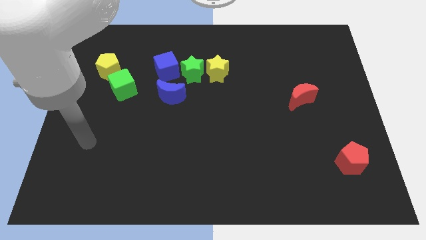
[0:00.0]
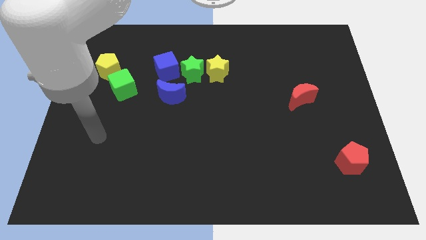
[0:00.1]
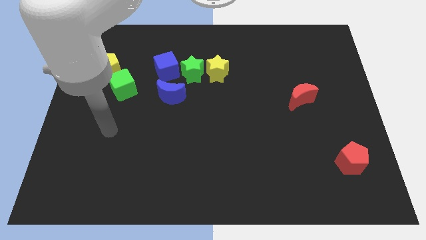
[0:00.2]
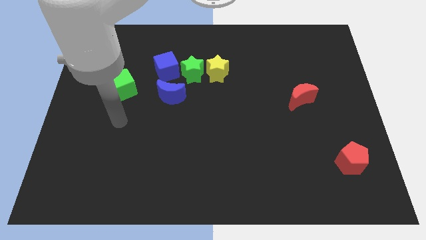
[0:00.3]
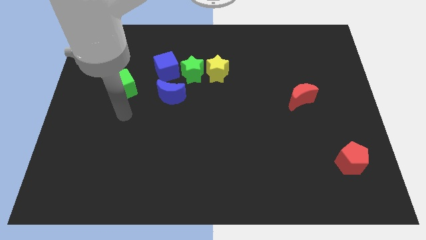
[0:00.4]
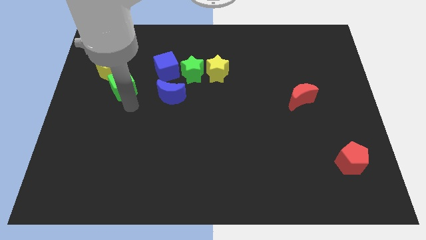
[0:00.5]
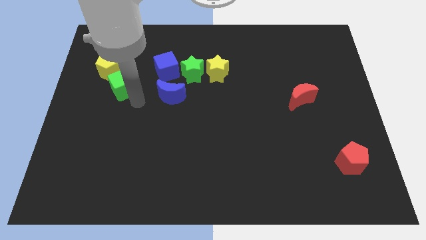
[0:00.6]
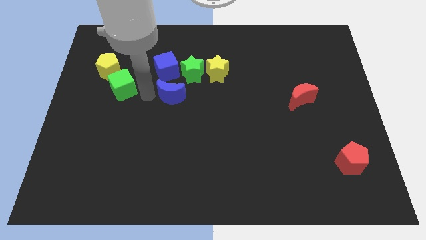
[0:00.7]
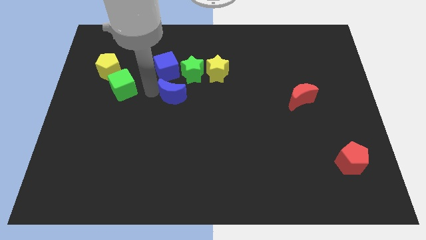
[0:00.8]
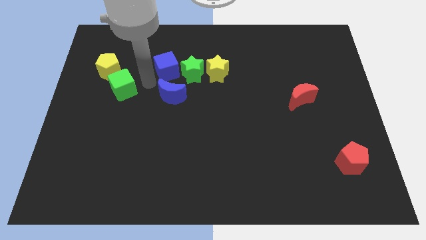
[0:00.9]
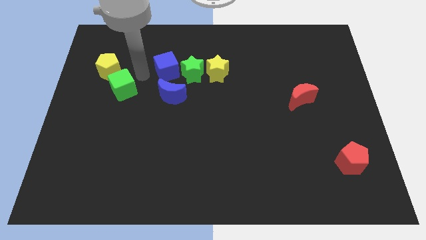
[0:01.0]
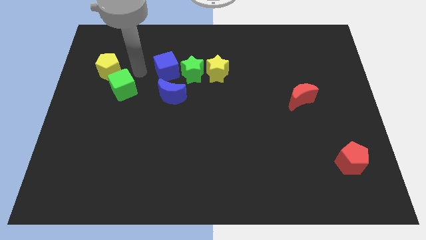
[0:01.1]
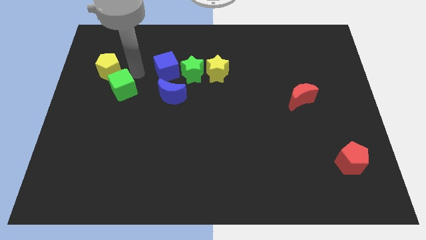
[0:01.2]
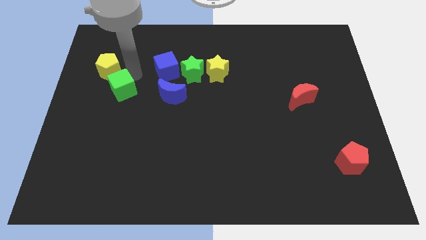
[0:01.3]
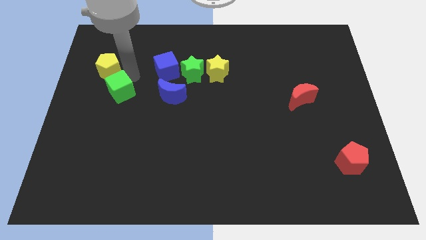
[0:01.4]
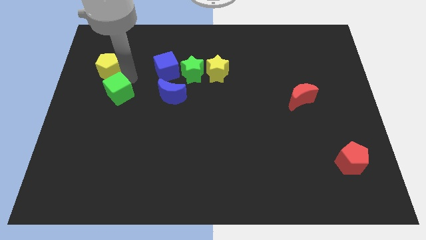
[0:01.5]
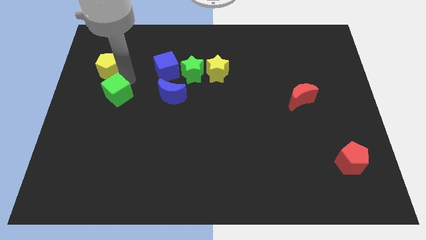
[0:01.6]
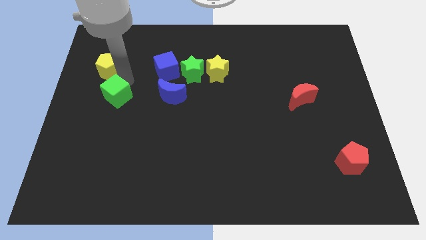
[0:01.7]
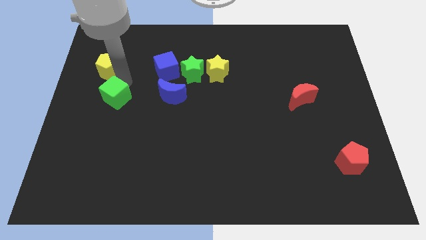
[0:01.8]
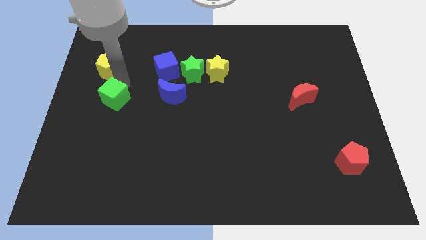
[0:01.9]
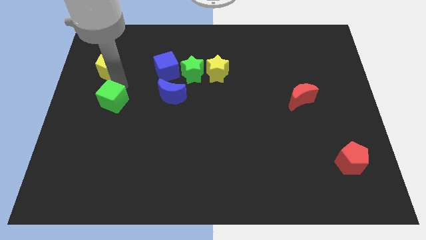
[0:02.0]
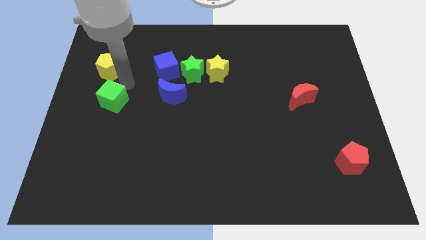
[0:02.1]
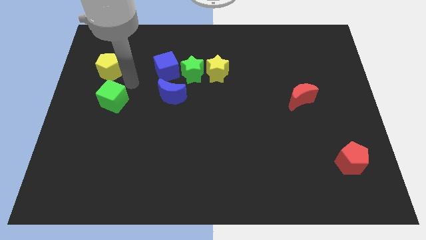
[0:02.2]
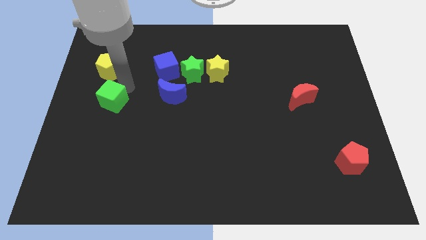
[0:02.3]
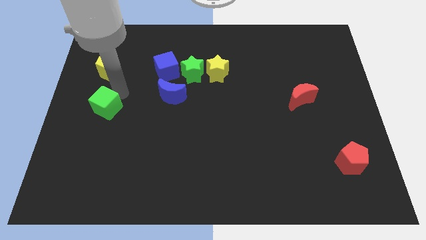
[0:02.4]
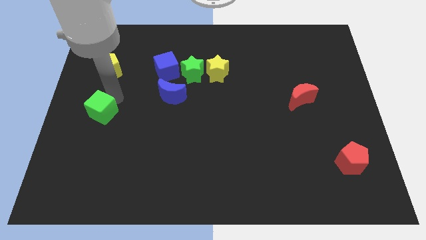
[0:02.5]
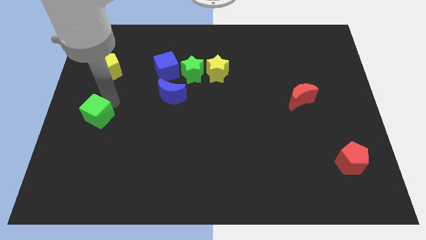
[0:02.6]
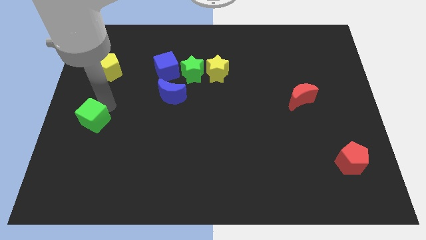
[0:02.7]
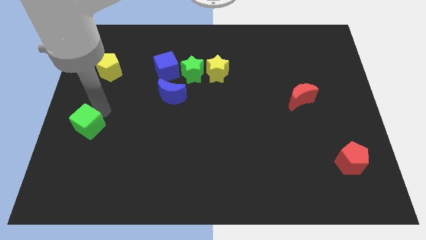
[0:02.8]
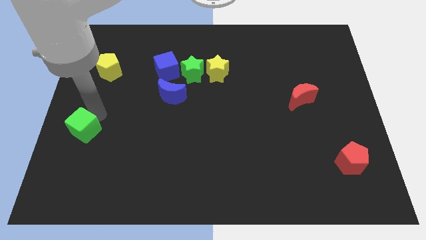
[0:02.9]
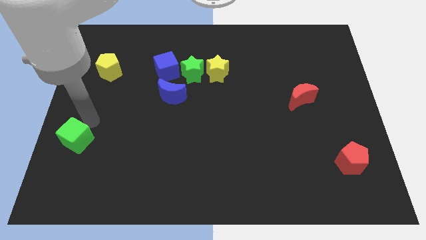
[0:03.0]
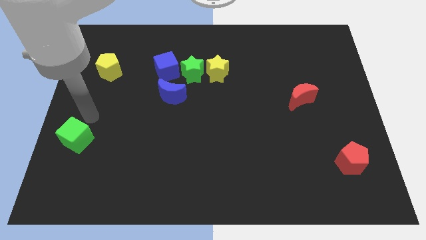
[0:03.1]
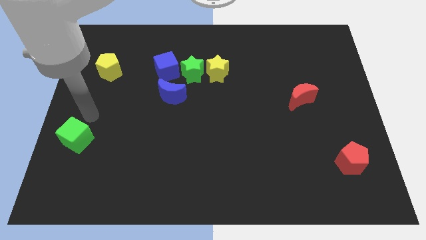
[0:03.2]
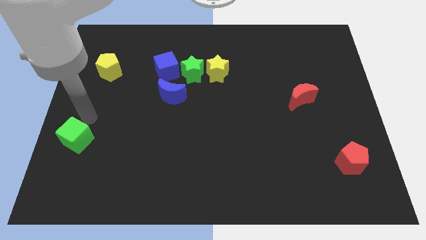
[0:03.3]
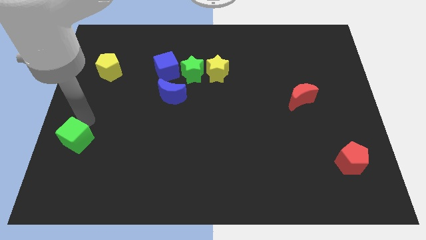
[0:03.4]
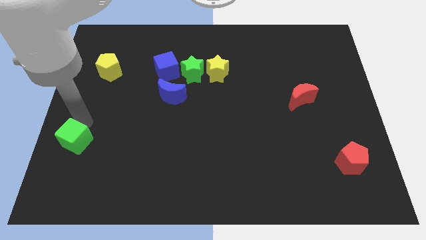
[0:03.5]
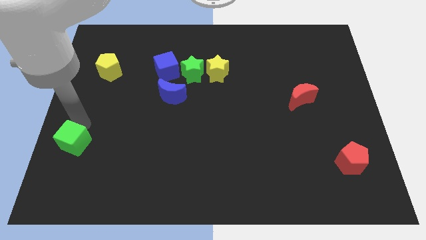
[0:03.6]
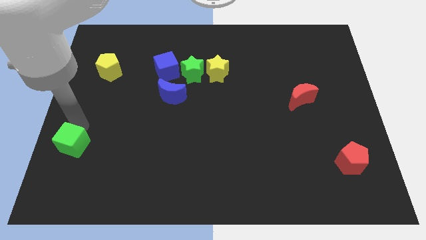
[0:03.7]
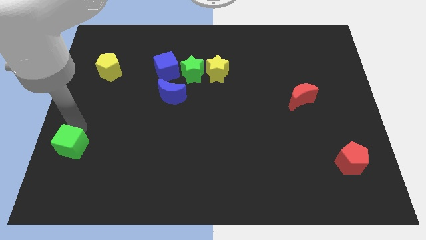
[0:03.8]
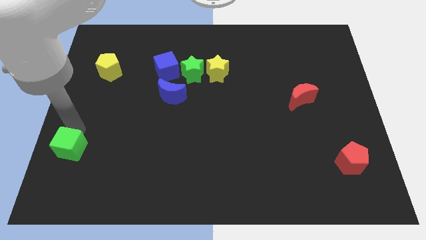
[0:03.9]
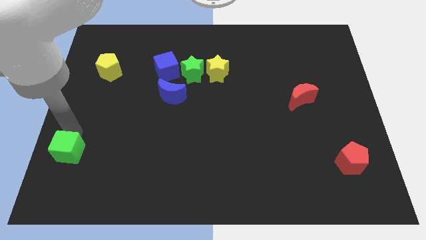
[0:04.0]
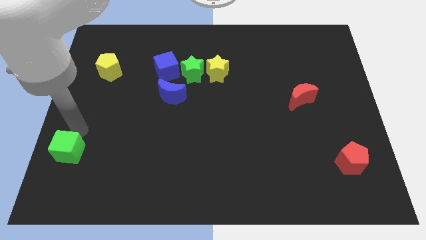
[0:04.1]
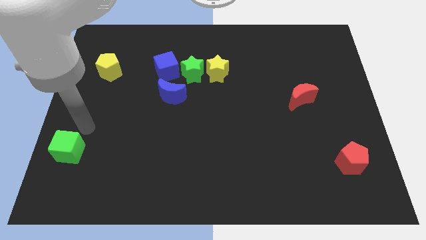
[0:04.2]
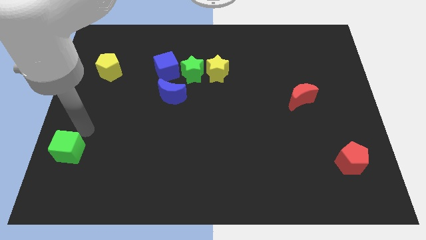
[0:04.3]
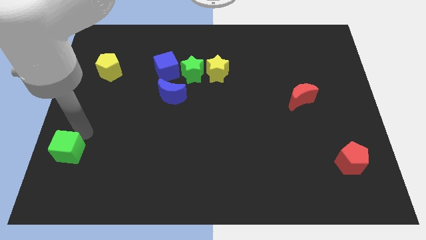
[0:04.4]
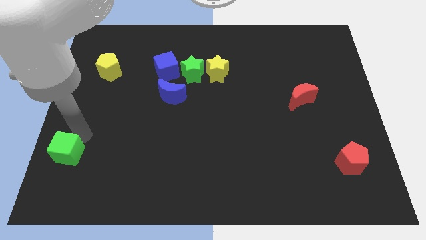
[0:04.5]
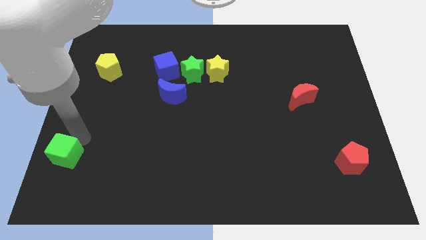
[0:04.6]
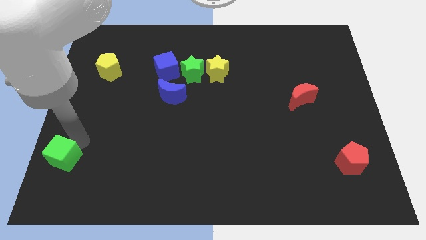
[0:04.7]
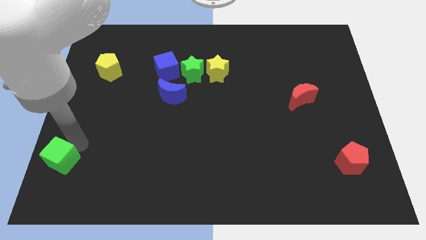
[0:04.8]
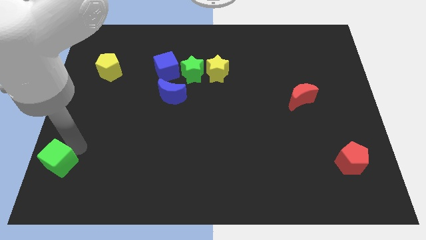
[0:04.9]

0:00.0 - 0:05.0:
move the green cube to the bottom left

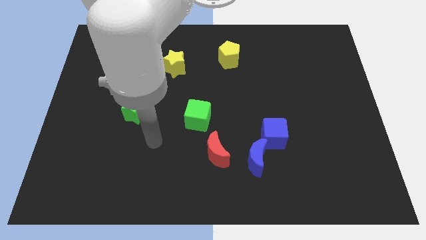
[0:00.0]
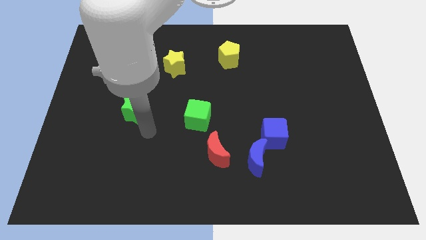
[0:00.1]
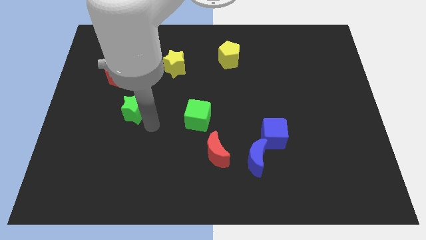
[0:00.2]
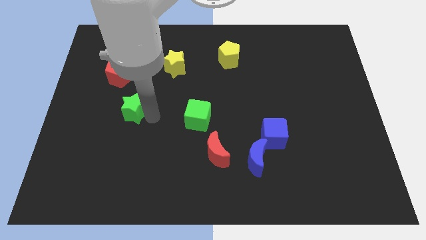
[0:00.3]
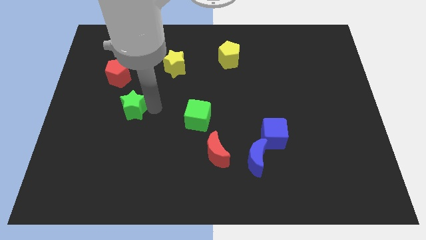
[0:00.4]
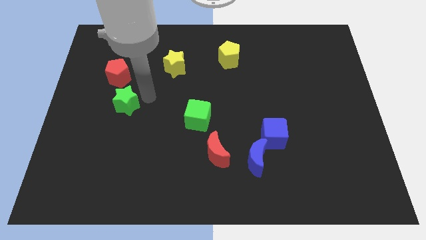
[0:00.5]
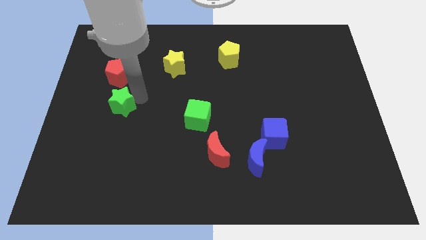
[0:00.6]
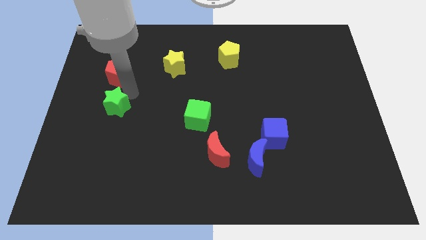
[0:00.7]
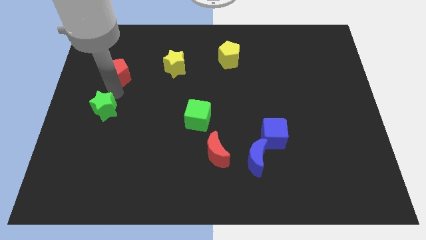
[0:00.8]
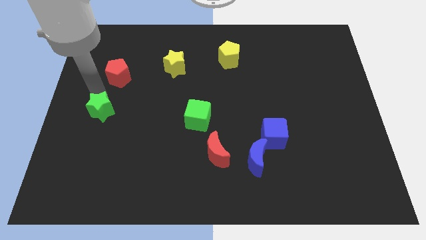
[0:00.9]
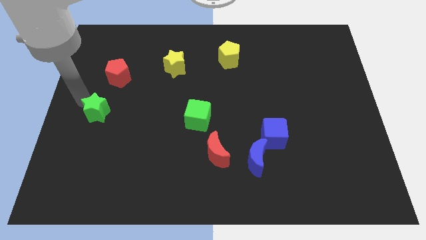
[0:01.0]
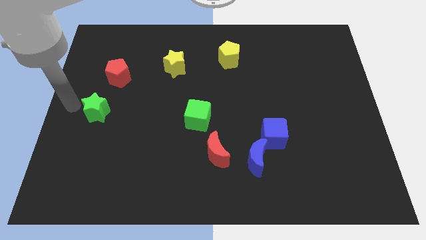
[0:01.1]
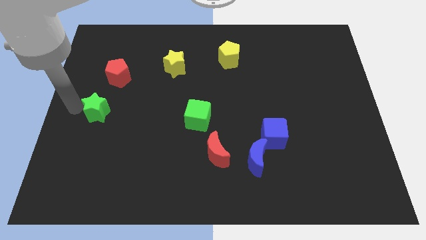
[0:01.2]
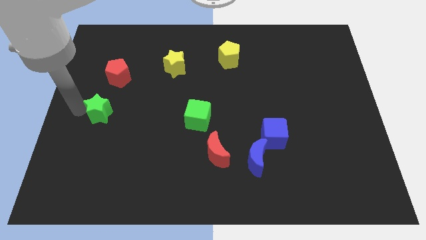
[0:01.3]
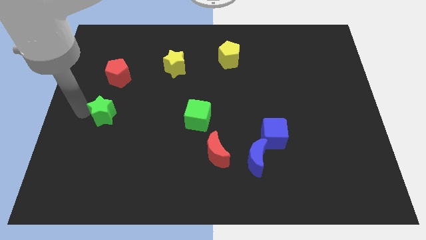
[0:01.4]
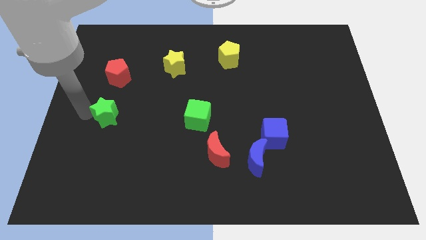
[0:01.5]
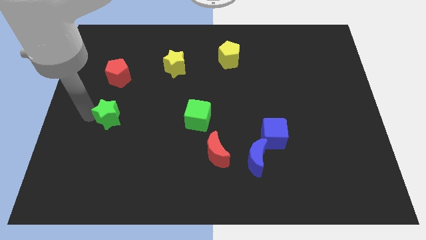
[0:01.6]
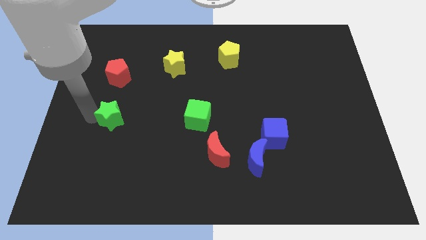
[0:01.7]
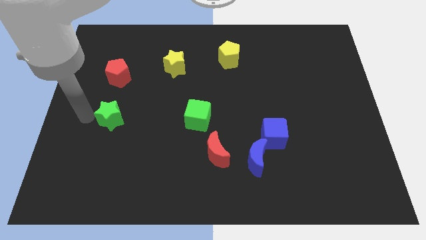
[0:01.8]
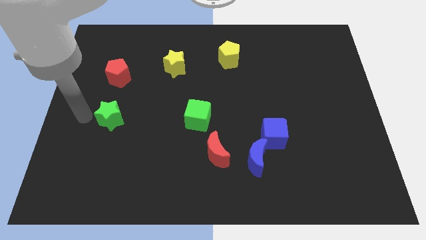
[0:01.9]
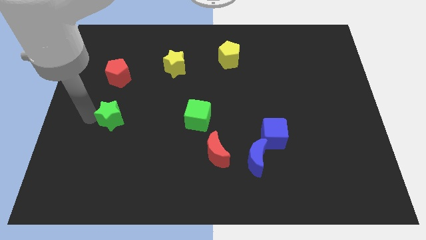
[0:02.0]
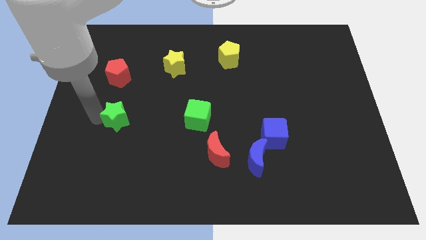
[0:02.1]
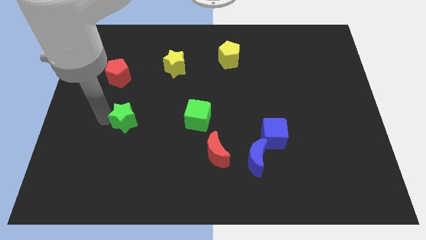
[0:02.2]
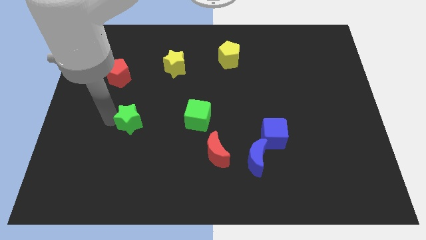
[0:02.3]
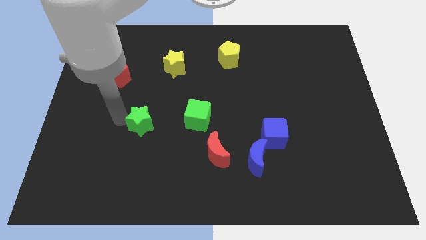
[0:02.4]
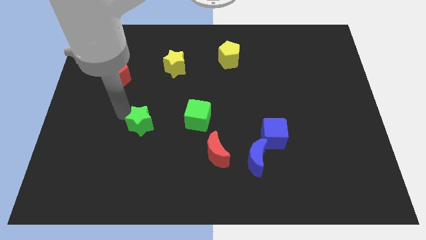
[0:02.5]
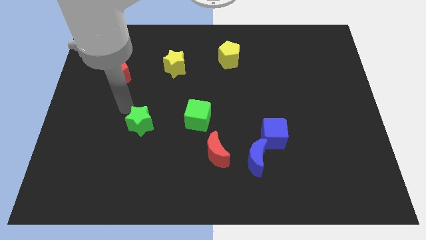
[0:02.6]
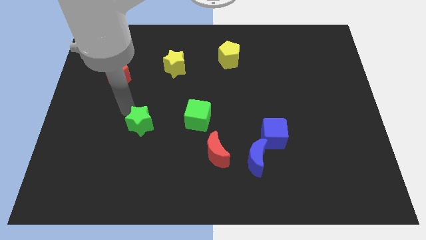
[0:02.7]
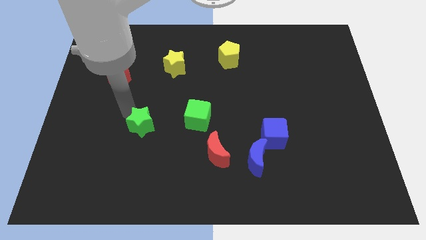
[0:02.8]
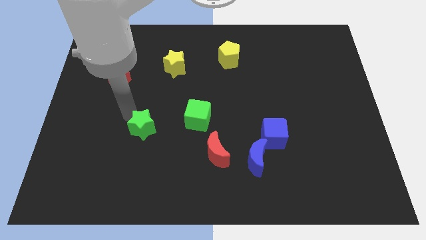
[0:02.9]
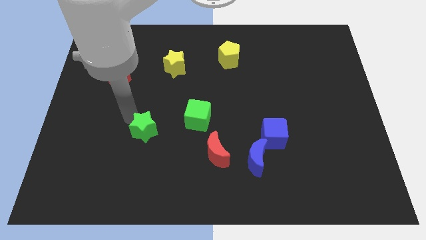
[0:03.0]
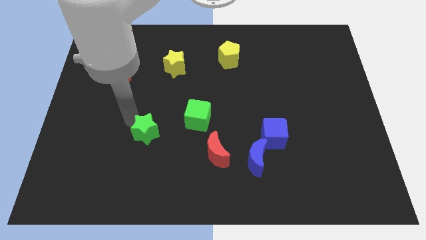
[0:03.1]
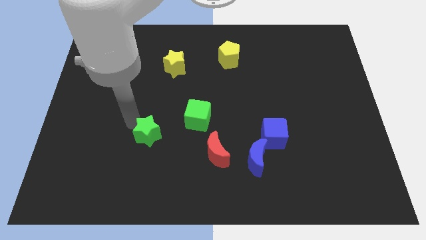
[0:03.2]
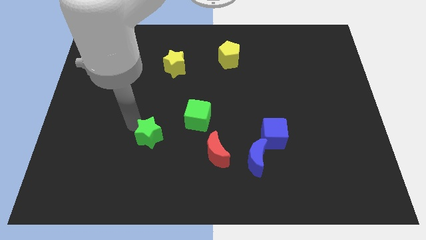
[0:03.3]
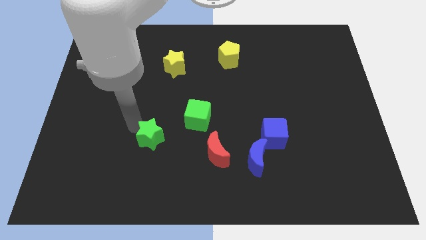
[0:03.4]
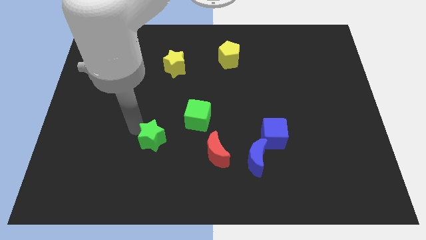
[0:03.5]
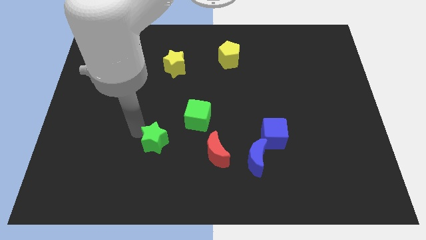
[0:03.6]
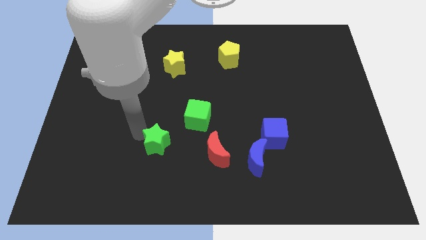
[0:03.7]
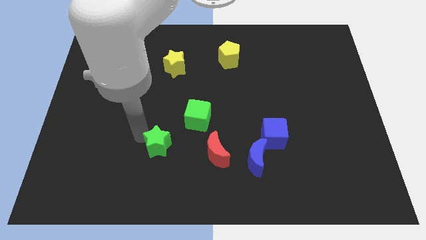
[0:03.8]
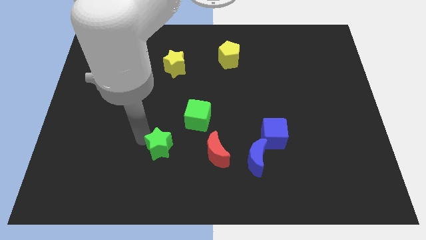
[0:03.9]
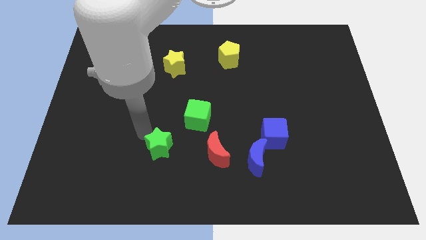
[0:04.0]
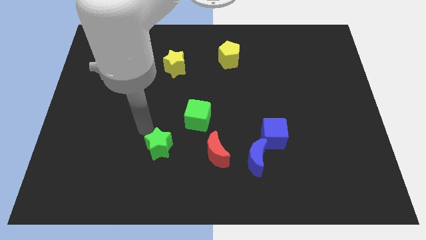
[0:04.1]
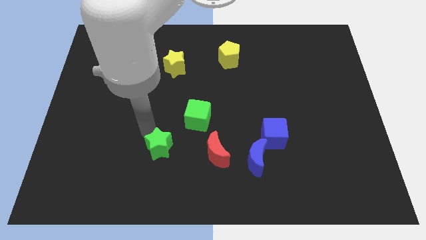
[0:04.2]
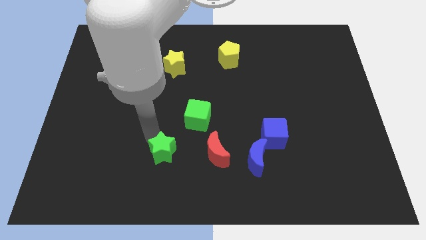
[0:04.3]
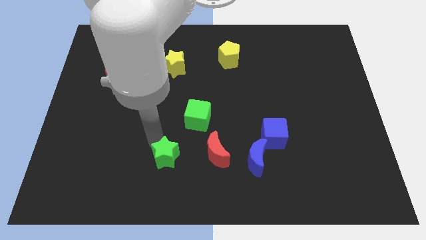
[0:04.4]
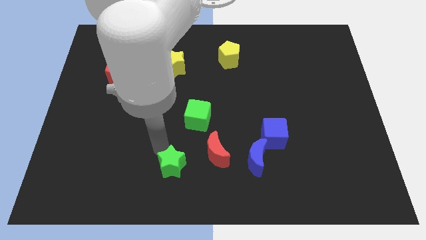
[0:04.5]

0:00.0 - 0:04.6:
put the green star to the bottom
